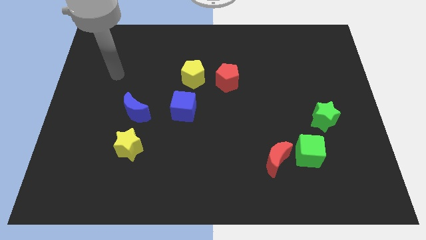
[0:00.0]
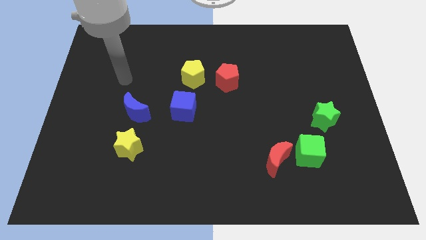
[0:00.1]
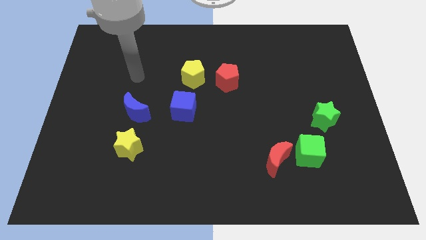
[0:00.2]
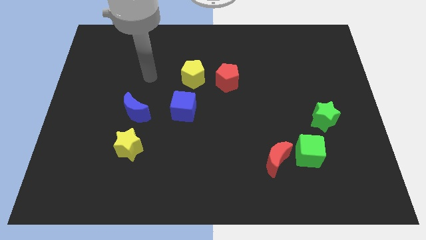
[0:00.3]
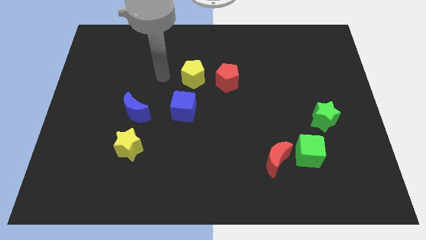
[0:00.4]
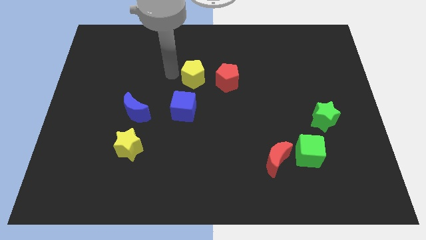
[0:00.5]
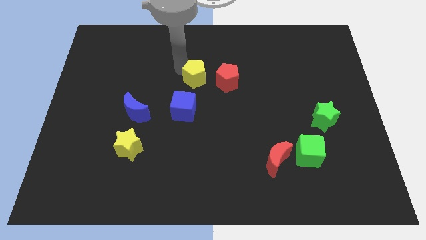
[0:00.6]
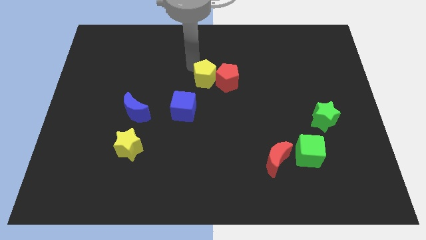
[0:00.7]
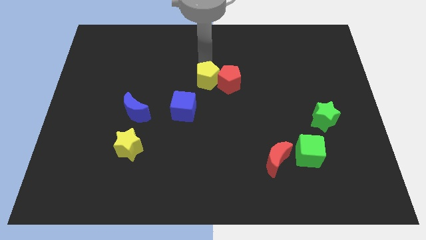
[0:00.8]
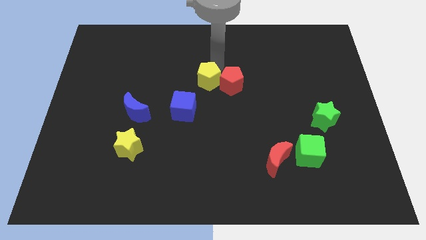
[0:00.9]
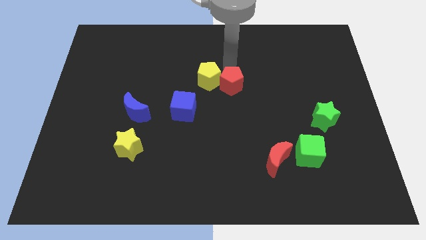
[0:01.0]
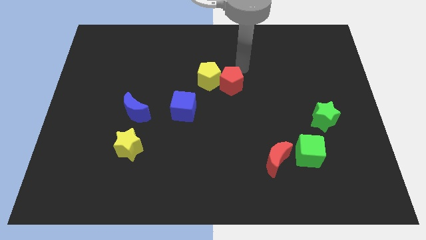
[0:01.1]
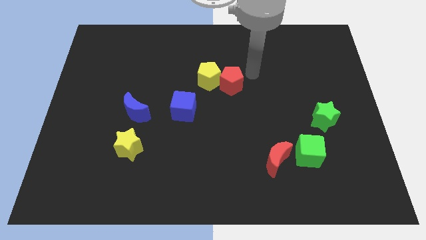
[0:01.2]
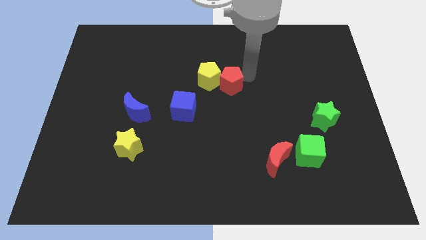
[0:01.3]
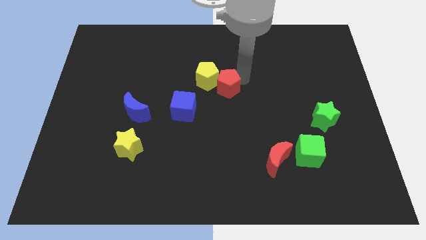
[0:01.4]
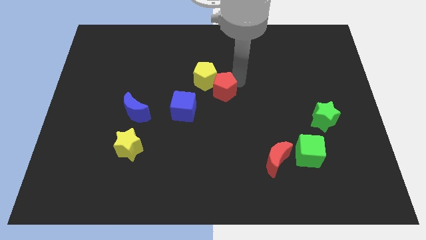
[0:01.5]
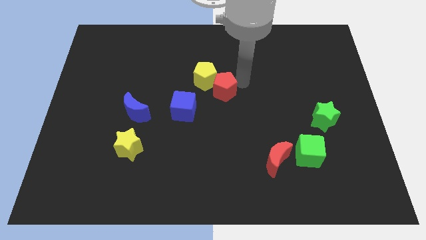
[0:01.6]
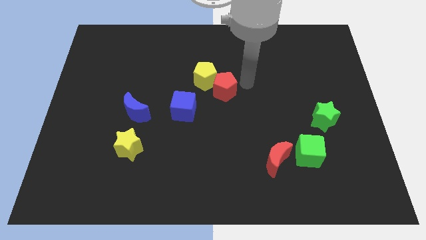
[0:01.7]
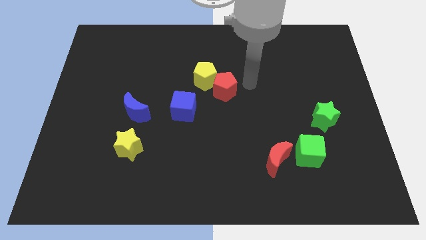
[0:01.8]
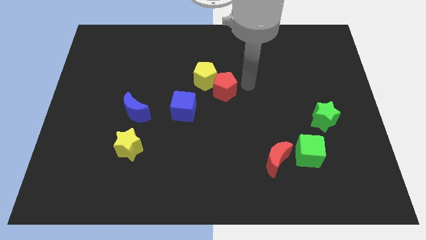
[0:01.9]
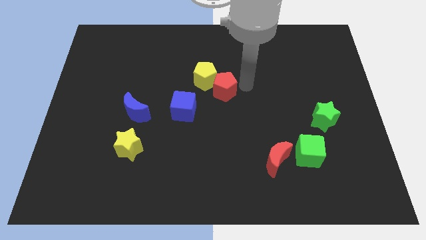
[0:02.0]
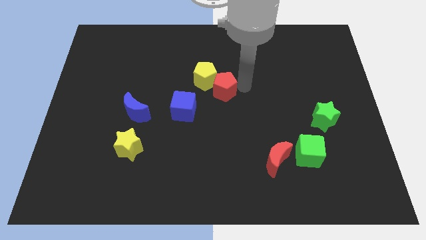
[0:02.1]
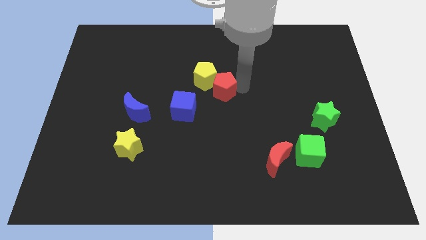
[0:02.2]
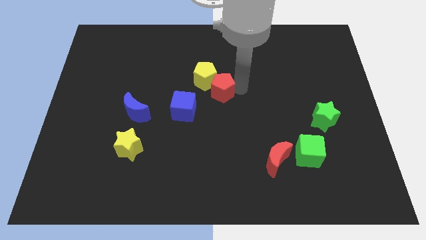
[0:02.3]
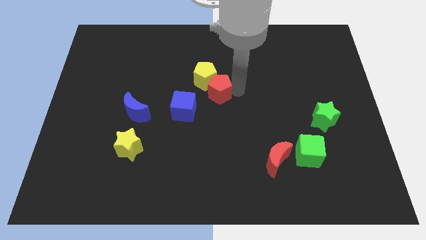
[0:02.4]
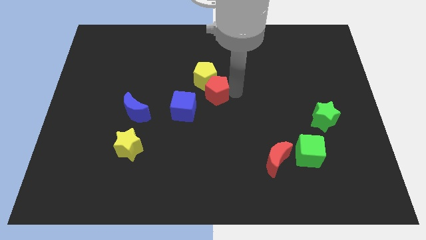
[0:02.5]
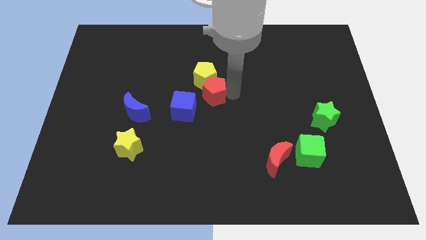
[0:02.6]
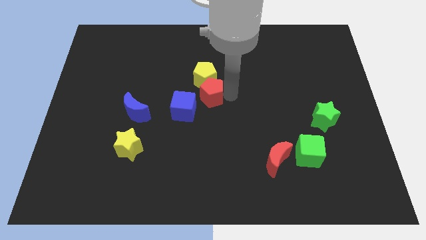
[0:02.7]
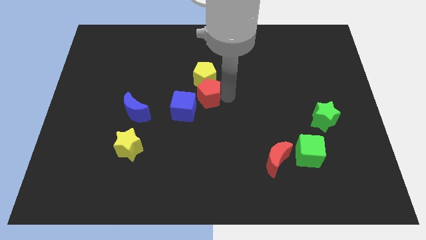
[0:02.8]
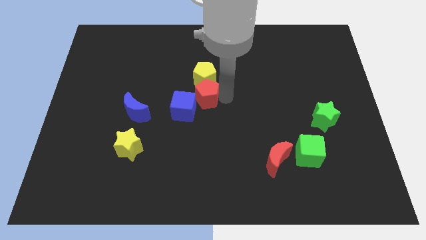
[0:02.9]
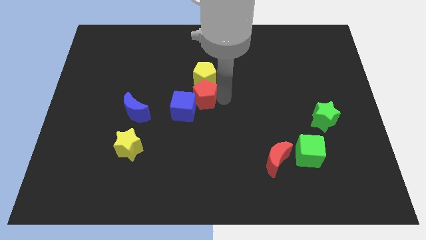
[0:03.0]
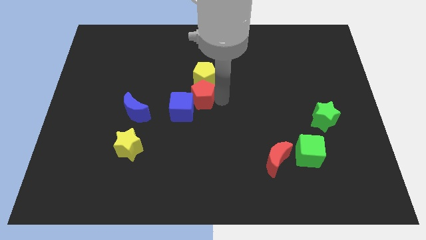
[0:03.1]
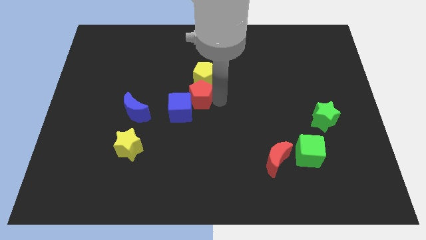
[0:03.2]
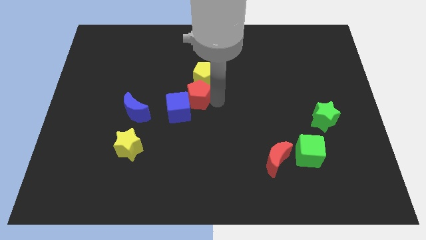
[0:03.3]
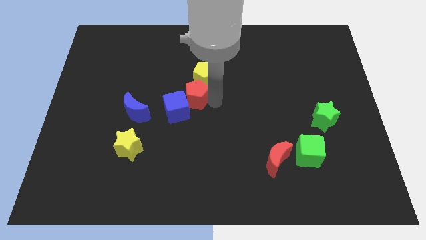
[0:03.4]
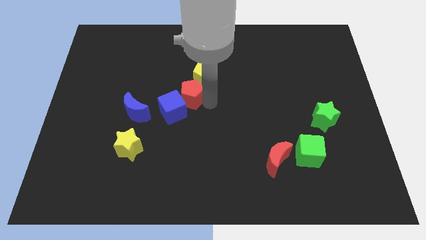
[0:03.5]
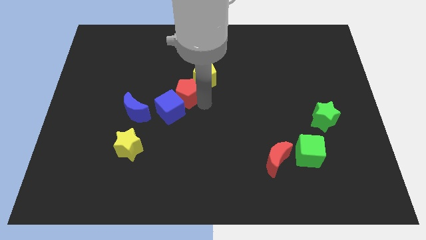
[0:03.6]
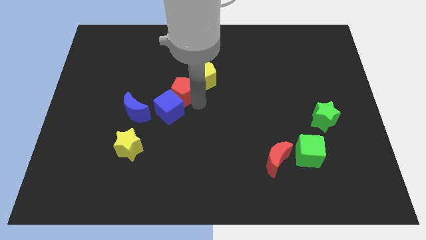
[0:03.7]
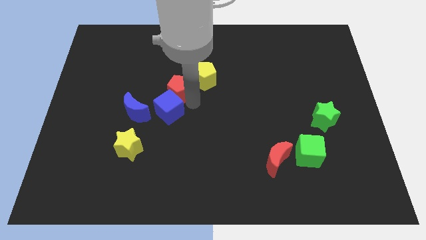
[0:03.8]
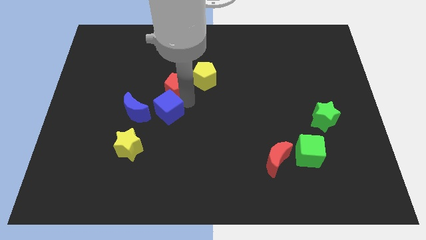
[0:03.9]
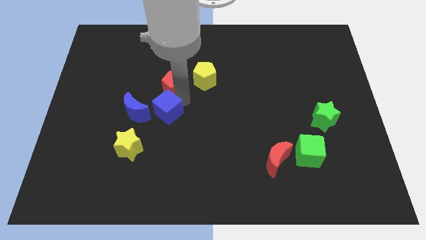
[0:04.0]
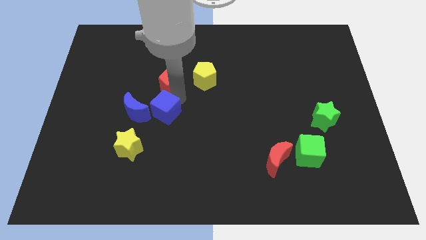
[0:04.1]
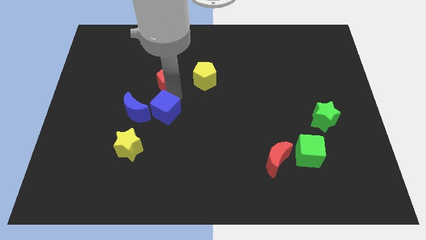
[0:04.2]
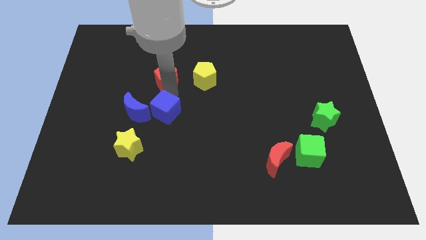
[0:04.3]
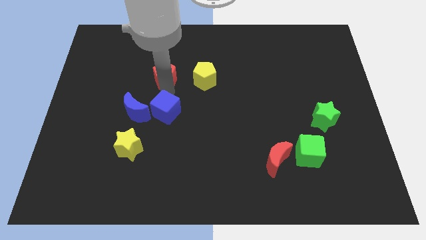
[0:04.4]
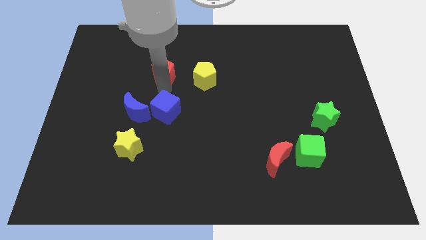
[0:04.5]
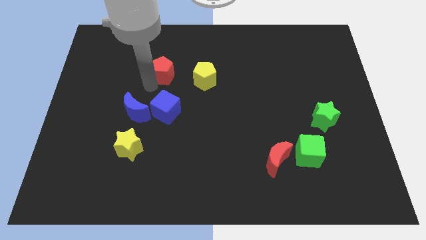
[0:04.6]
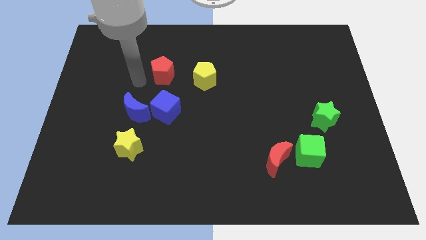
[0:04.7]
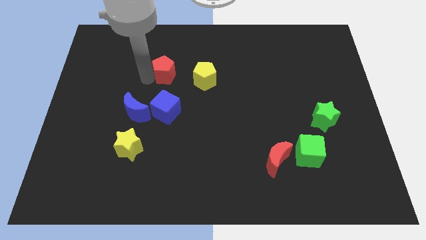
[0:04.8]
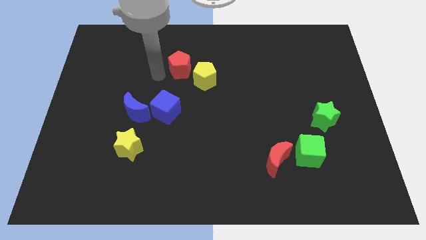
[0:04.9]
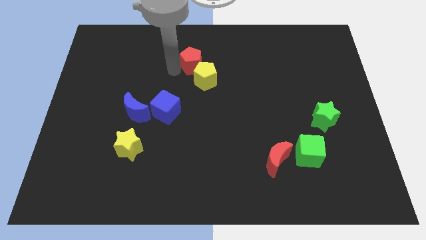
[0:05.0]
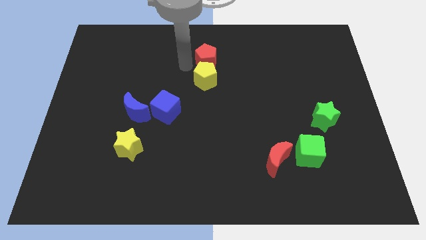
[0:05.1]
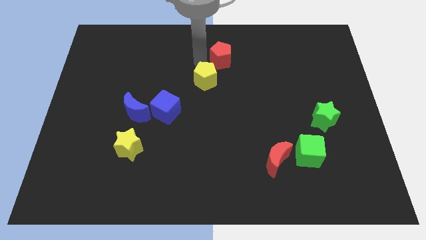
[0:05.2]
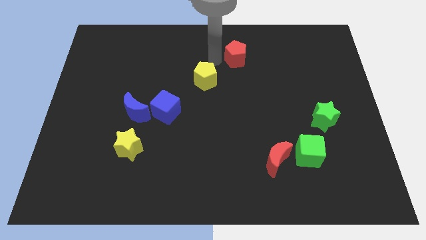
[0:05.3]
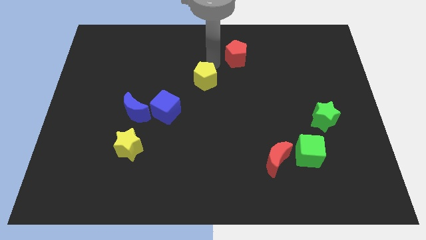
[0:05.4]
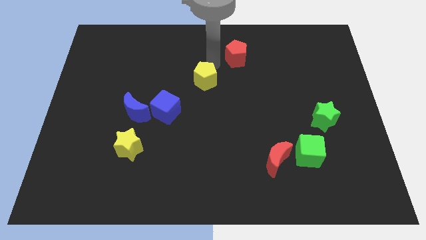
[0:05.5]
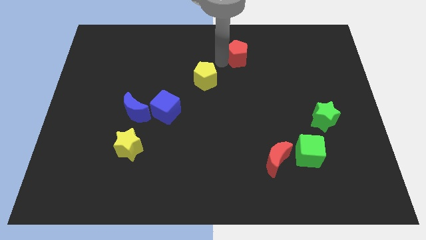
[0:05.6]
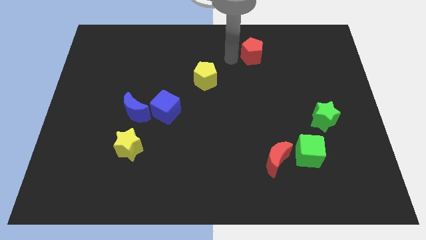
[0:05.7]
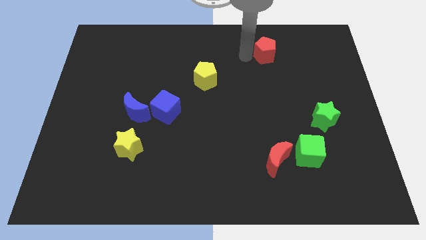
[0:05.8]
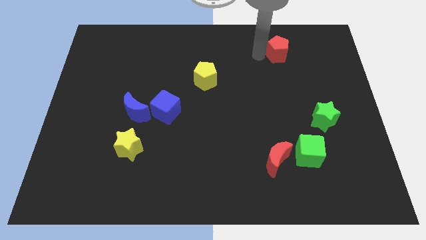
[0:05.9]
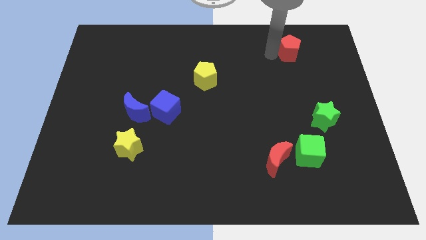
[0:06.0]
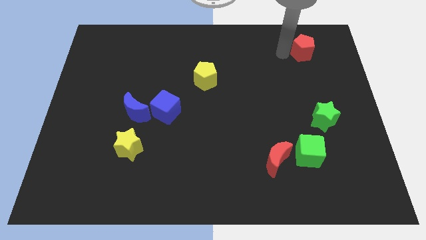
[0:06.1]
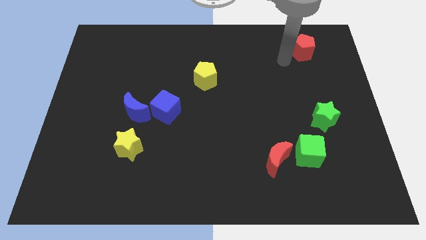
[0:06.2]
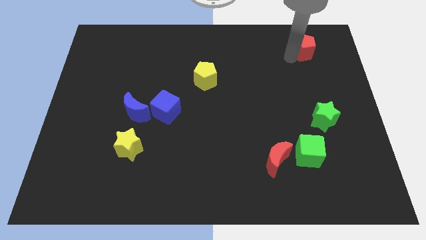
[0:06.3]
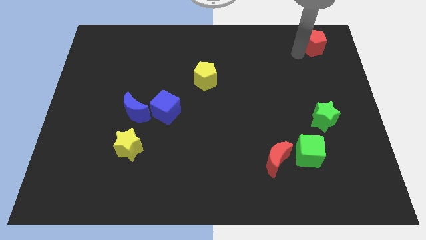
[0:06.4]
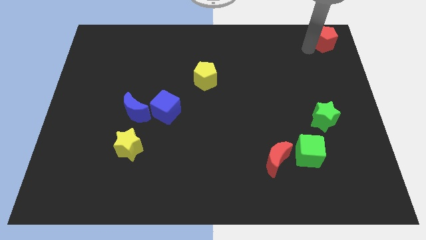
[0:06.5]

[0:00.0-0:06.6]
push the red pentagon to the top right

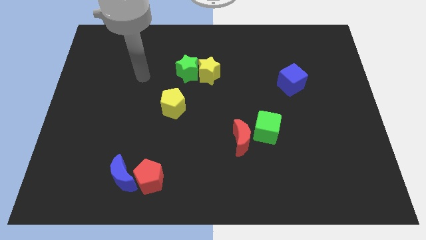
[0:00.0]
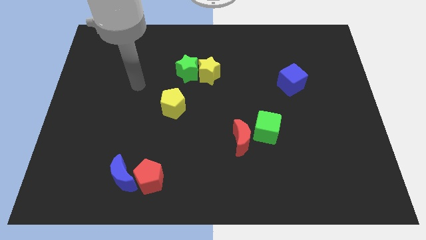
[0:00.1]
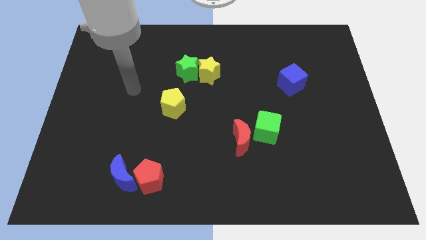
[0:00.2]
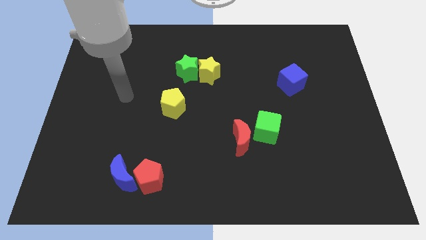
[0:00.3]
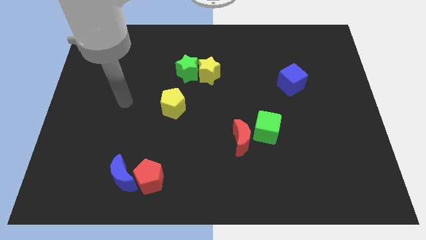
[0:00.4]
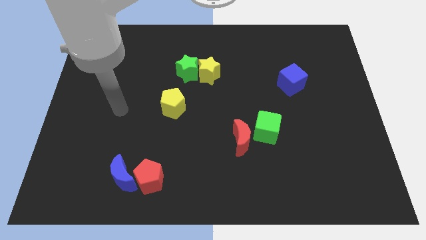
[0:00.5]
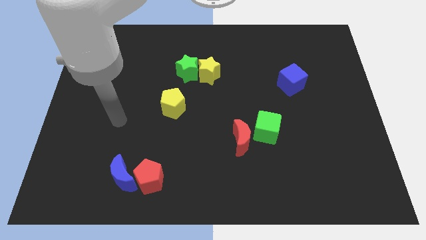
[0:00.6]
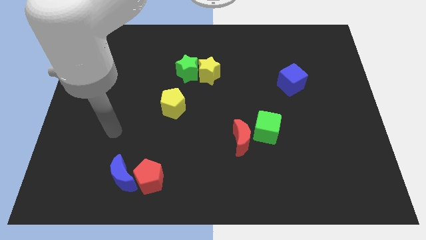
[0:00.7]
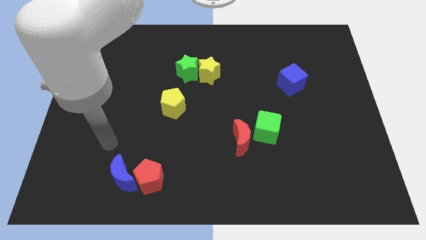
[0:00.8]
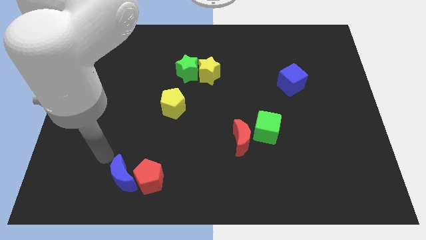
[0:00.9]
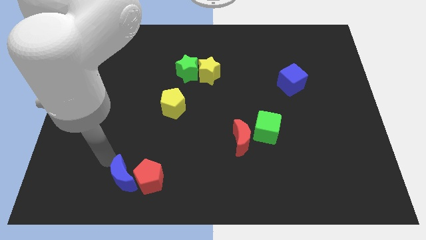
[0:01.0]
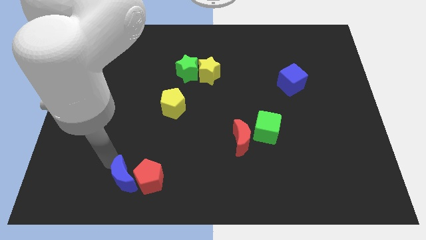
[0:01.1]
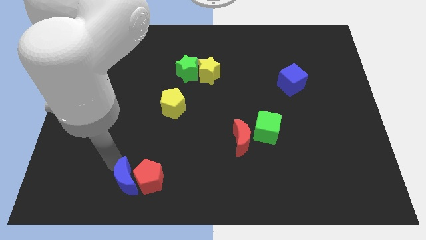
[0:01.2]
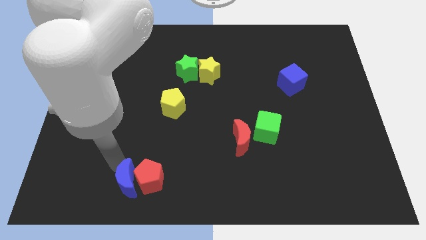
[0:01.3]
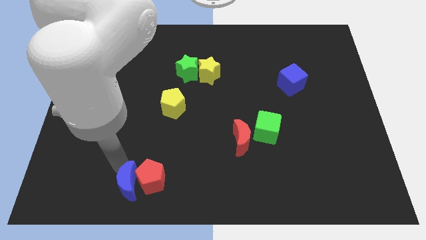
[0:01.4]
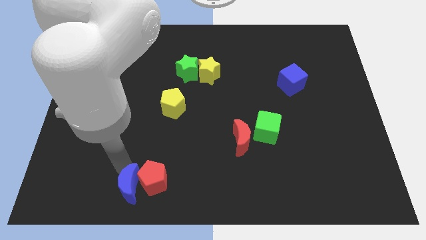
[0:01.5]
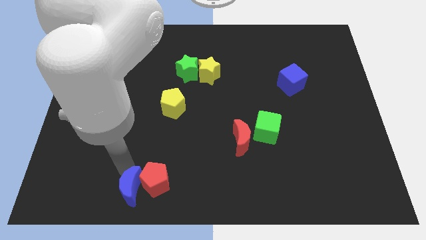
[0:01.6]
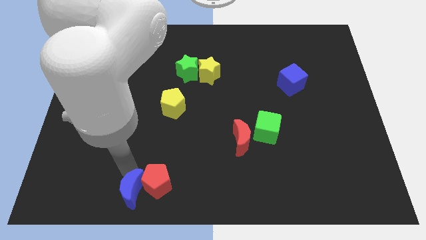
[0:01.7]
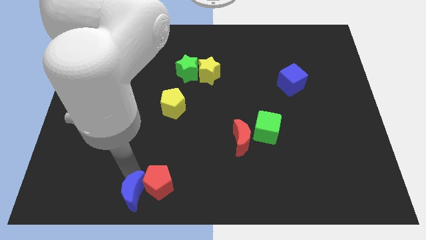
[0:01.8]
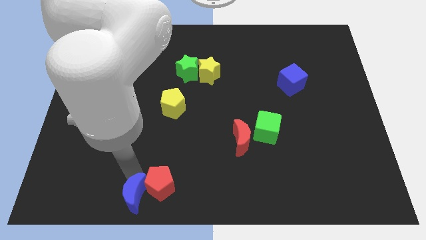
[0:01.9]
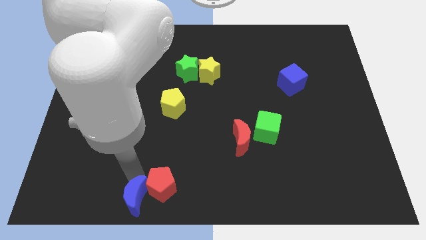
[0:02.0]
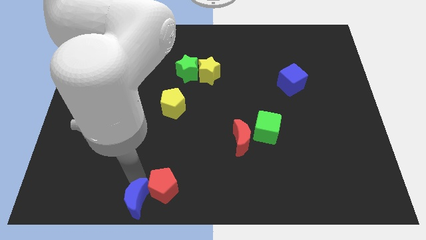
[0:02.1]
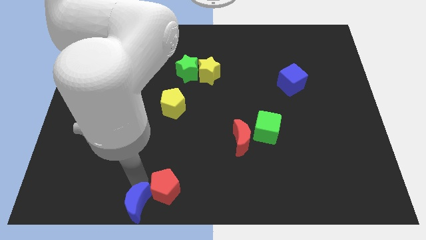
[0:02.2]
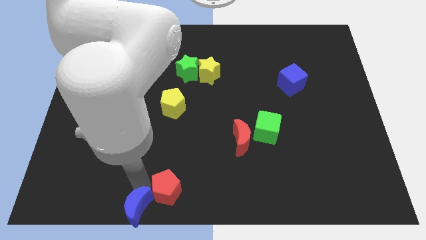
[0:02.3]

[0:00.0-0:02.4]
put the blue moon to the bottom side
